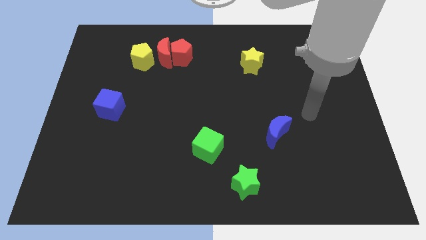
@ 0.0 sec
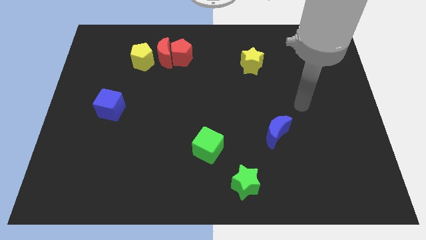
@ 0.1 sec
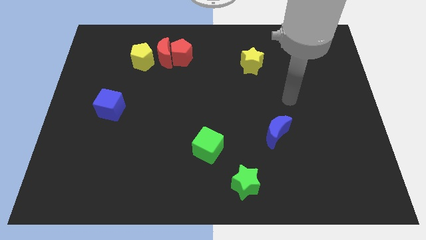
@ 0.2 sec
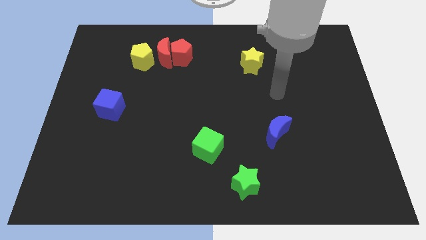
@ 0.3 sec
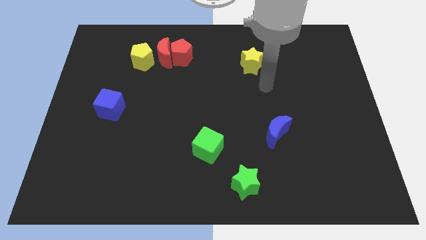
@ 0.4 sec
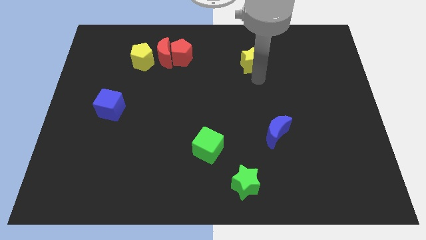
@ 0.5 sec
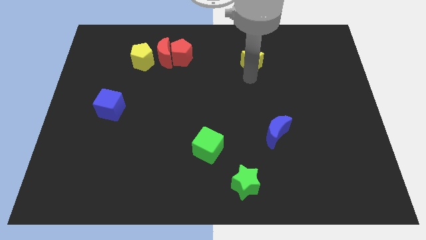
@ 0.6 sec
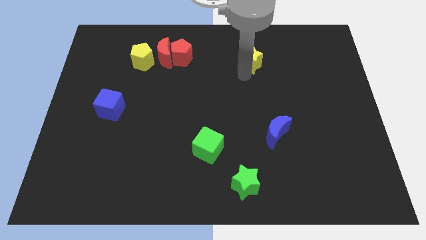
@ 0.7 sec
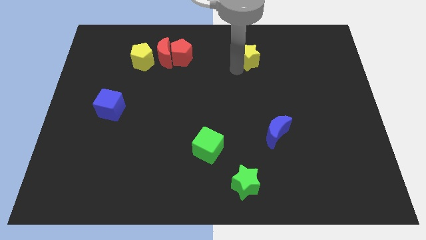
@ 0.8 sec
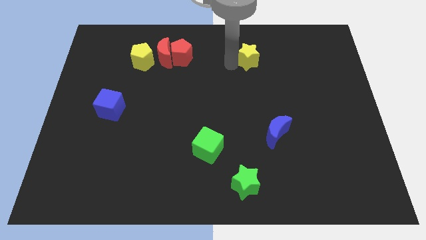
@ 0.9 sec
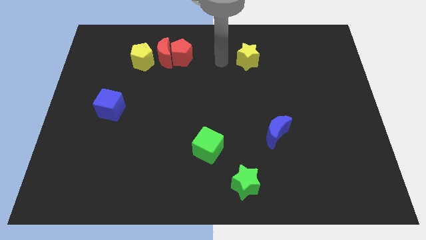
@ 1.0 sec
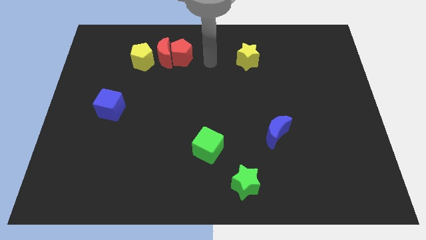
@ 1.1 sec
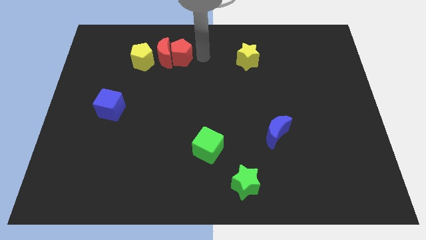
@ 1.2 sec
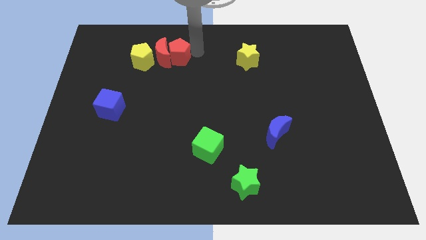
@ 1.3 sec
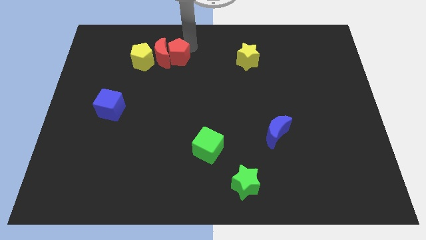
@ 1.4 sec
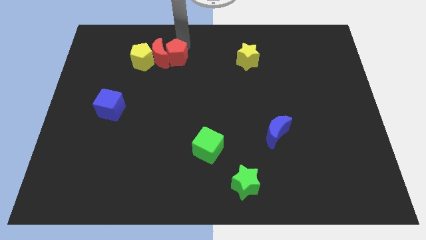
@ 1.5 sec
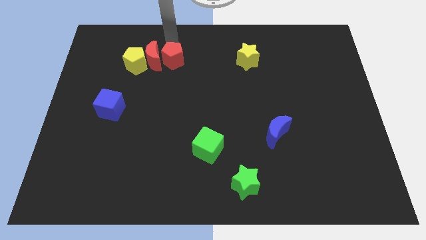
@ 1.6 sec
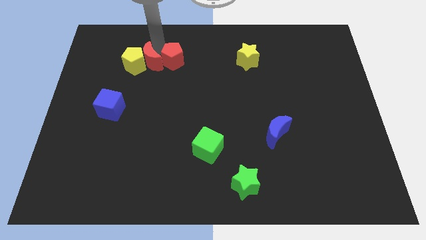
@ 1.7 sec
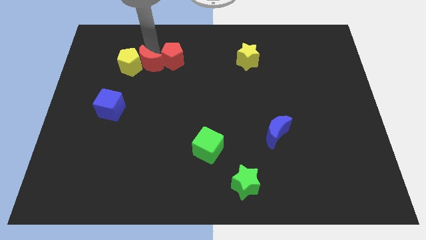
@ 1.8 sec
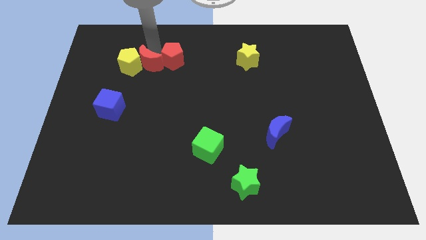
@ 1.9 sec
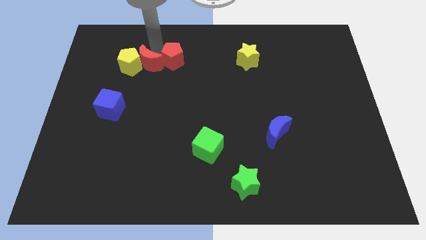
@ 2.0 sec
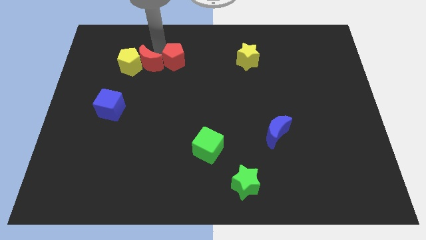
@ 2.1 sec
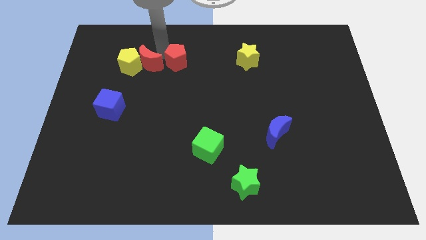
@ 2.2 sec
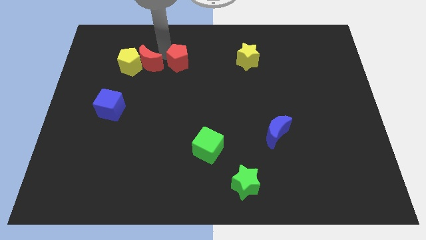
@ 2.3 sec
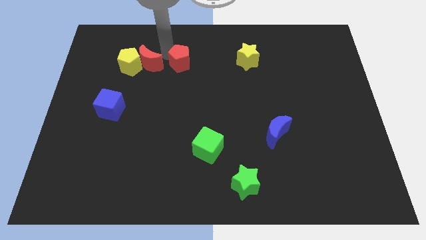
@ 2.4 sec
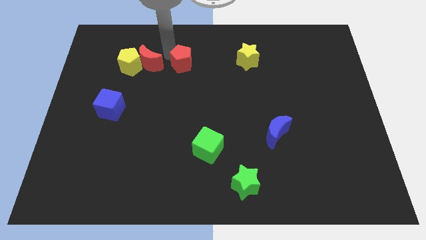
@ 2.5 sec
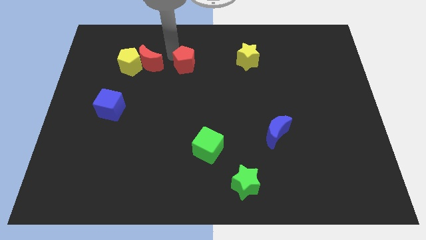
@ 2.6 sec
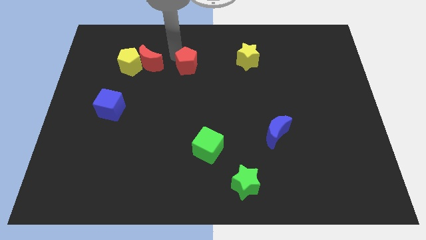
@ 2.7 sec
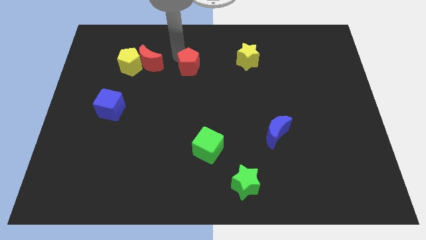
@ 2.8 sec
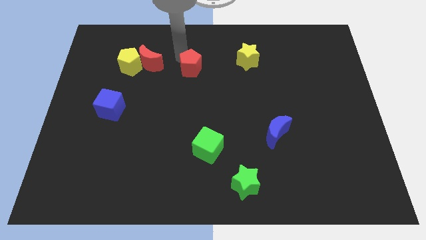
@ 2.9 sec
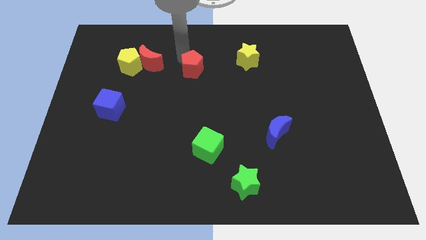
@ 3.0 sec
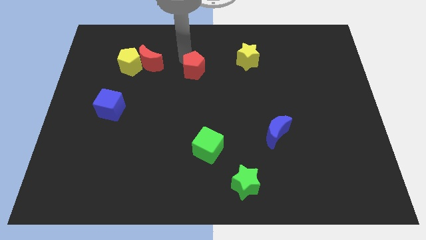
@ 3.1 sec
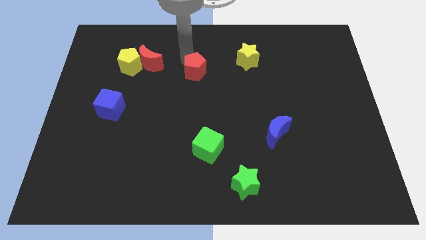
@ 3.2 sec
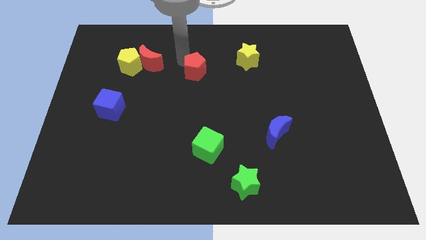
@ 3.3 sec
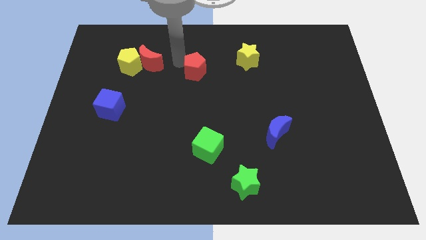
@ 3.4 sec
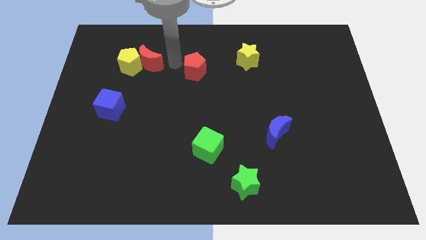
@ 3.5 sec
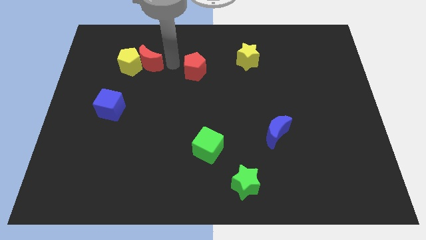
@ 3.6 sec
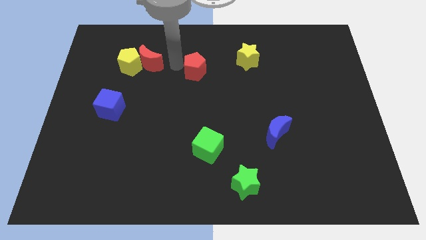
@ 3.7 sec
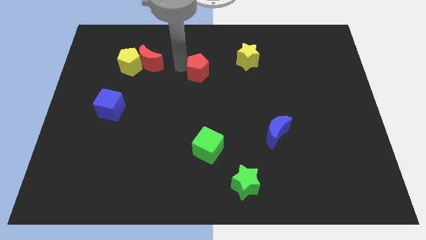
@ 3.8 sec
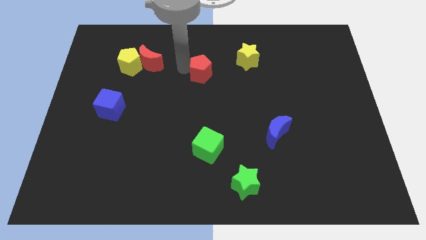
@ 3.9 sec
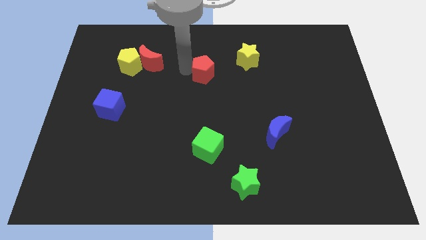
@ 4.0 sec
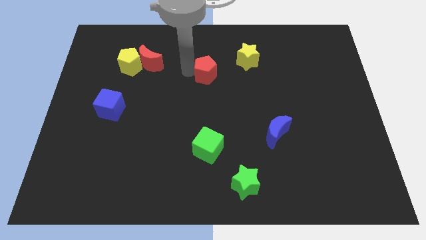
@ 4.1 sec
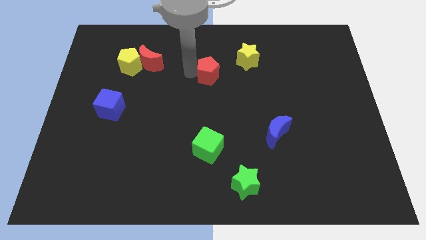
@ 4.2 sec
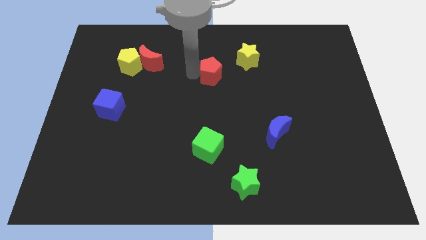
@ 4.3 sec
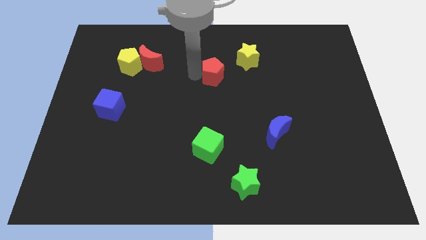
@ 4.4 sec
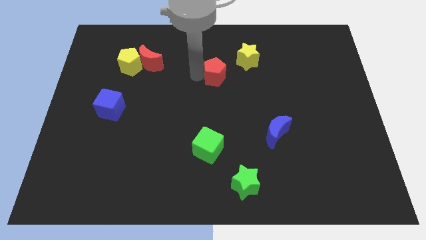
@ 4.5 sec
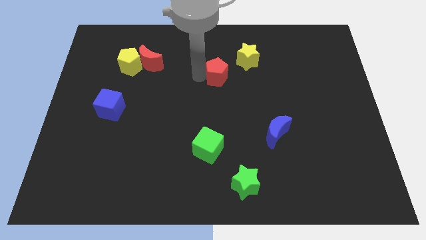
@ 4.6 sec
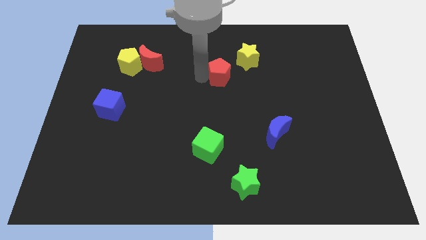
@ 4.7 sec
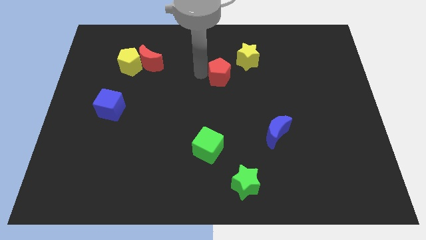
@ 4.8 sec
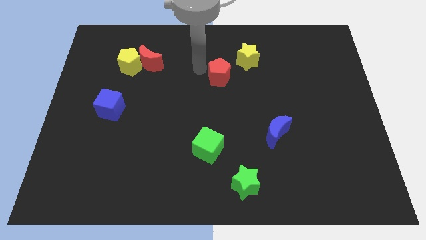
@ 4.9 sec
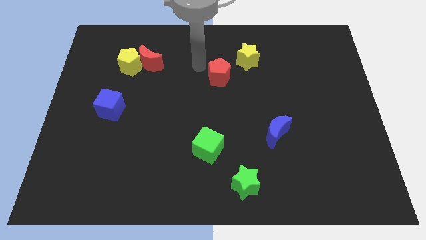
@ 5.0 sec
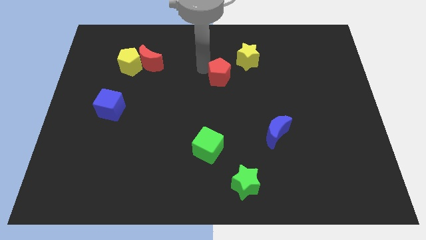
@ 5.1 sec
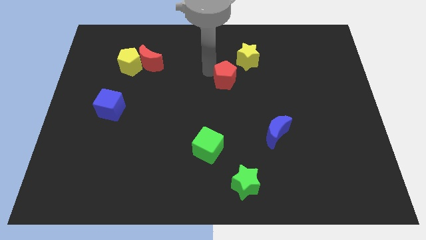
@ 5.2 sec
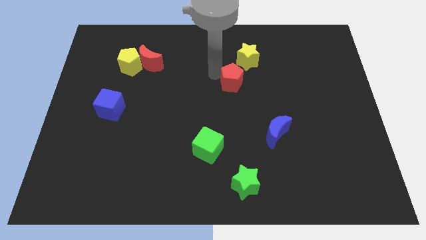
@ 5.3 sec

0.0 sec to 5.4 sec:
move the red pentagon below the yellow star

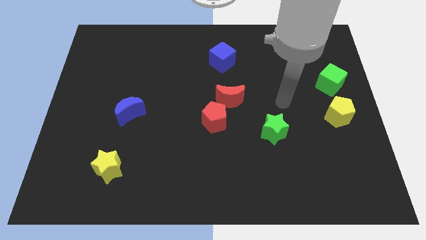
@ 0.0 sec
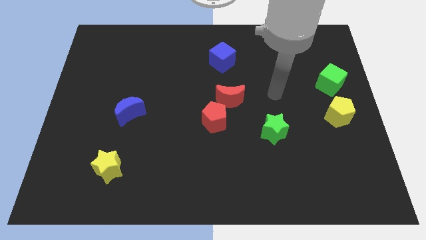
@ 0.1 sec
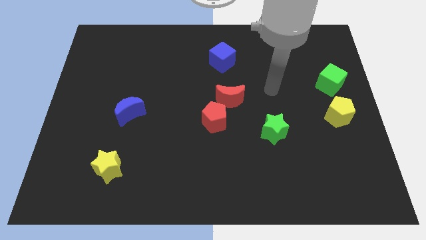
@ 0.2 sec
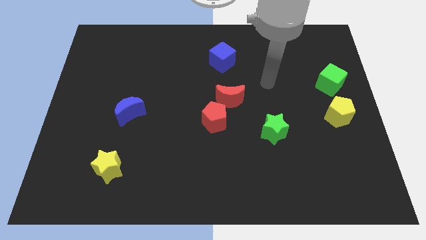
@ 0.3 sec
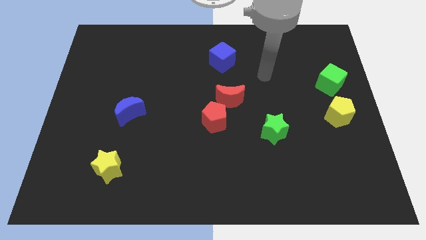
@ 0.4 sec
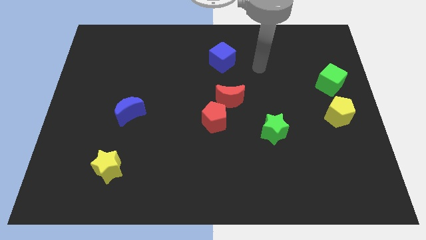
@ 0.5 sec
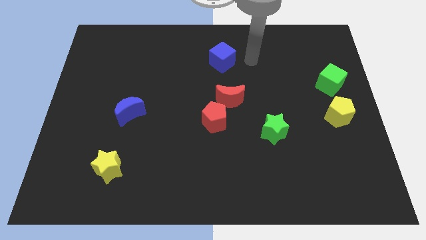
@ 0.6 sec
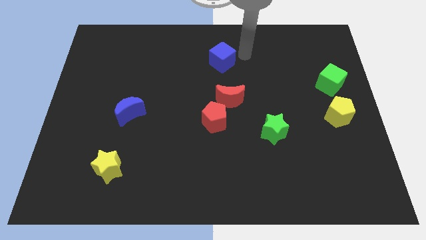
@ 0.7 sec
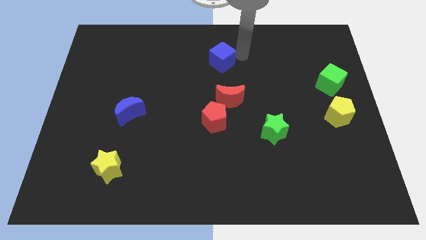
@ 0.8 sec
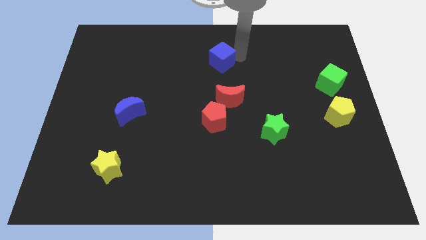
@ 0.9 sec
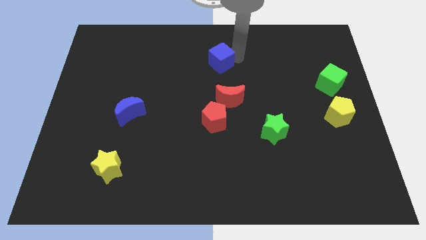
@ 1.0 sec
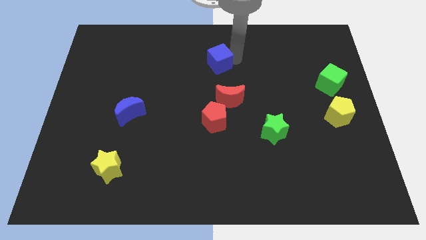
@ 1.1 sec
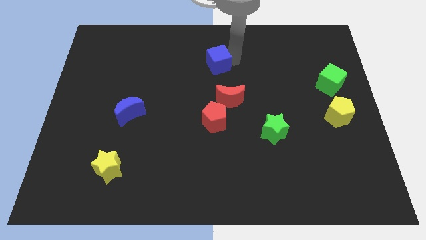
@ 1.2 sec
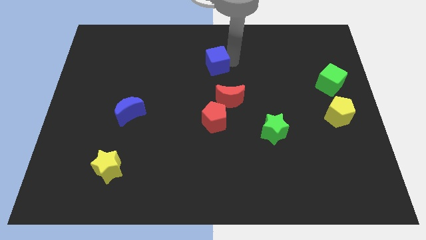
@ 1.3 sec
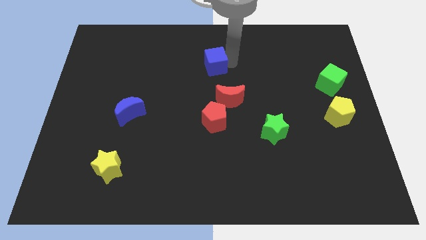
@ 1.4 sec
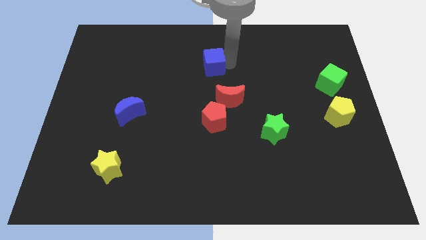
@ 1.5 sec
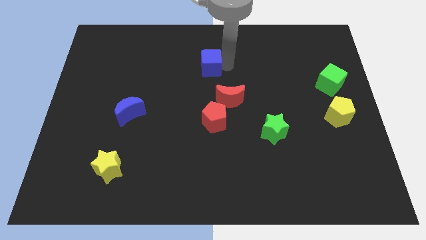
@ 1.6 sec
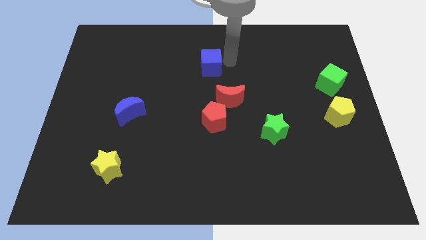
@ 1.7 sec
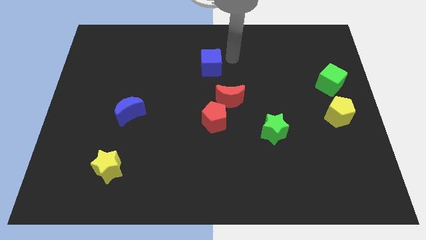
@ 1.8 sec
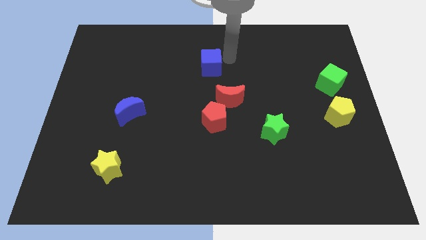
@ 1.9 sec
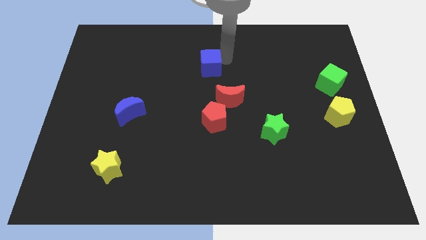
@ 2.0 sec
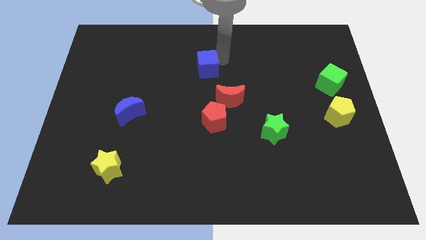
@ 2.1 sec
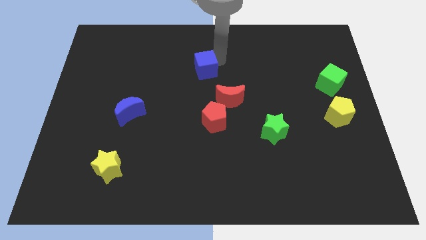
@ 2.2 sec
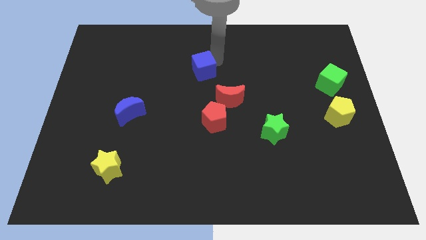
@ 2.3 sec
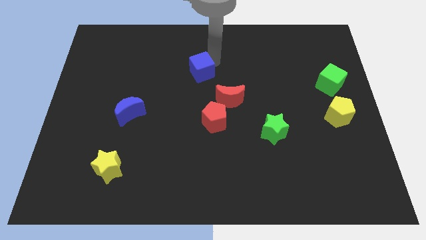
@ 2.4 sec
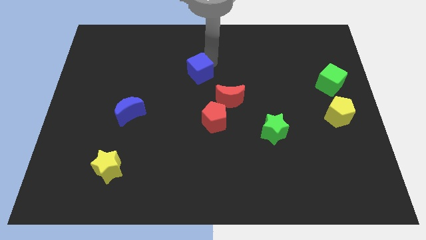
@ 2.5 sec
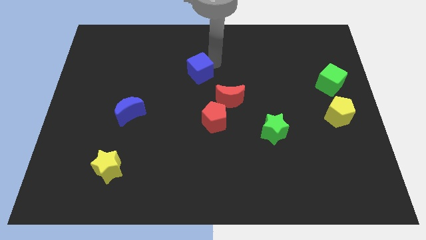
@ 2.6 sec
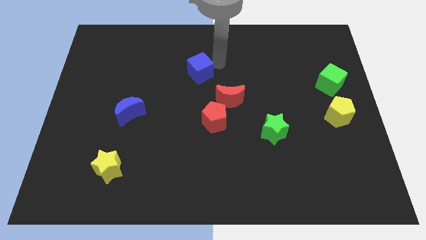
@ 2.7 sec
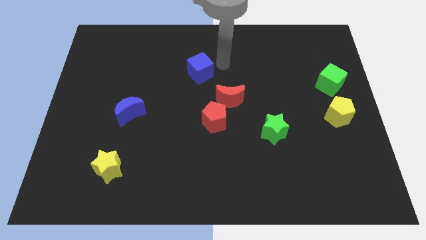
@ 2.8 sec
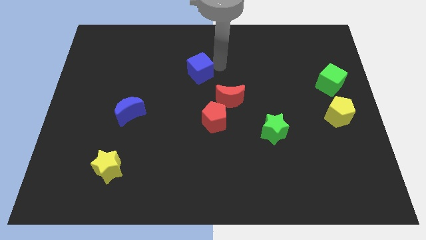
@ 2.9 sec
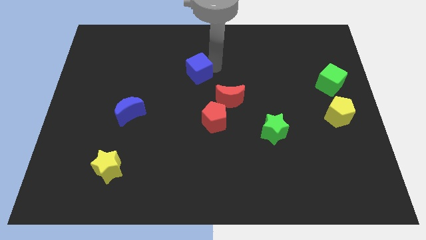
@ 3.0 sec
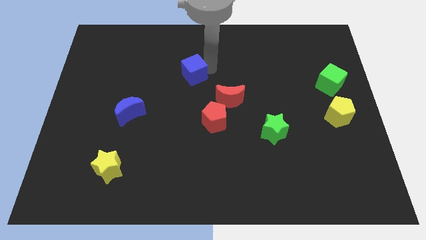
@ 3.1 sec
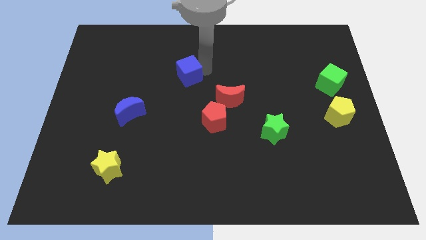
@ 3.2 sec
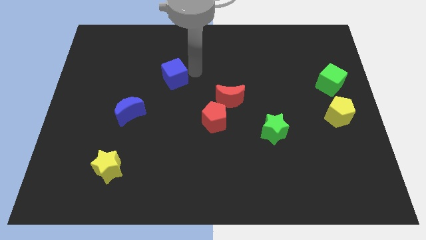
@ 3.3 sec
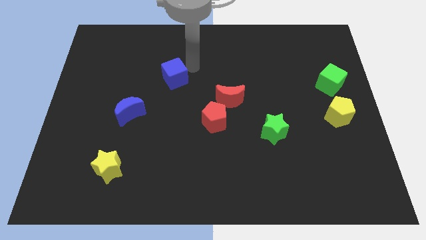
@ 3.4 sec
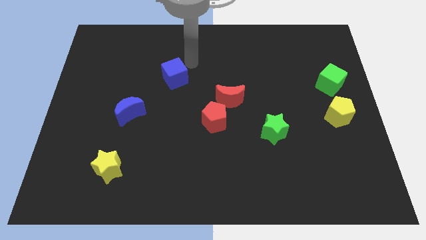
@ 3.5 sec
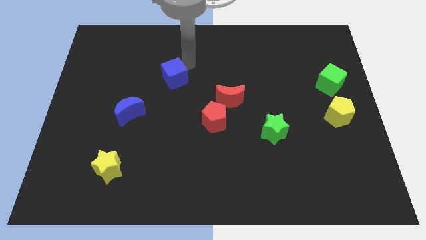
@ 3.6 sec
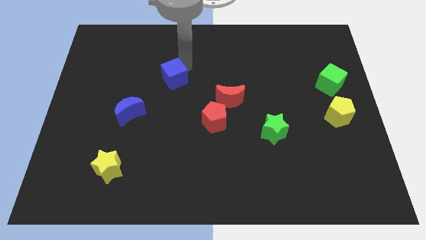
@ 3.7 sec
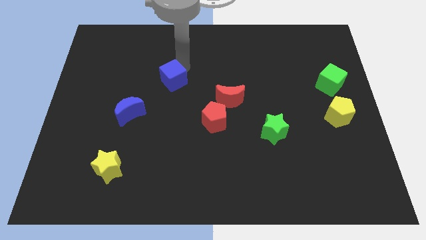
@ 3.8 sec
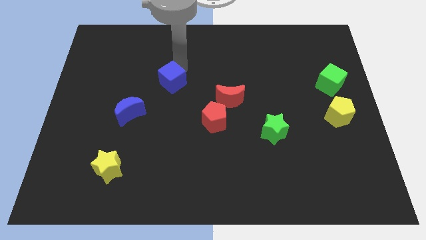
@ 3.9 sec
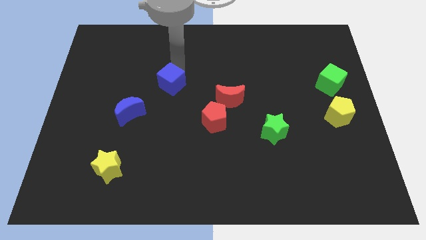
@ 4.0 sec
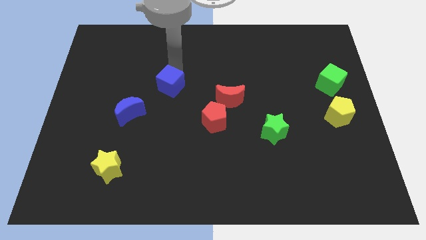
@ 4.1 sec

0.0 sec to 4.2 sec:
push the blue cube to the top right of the blue moon
